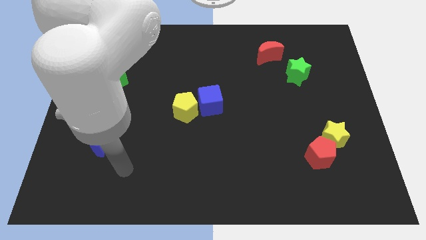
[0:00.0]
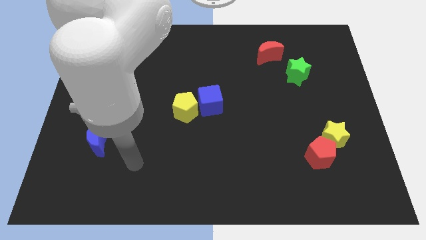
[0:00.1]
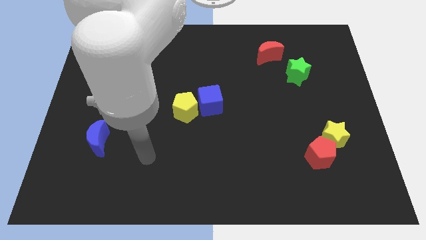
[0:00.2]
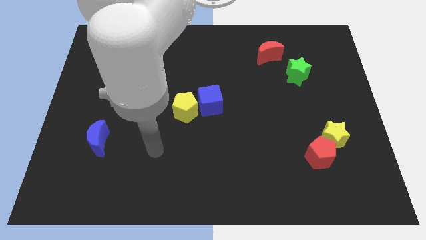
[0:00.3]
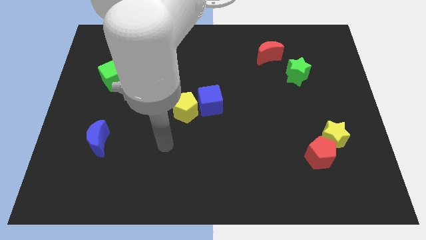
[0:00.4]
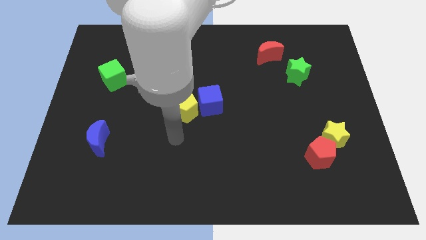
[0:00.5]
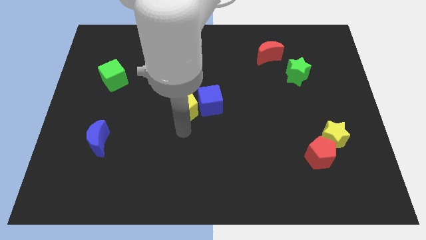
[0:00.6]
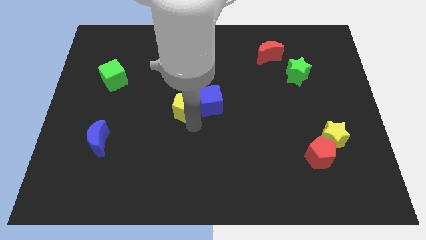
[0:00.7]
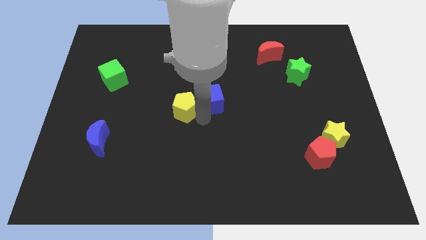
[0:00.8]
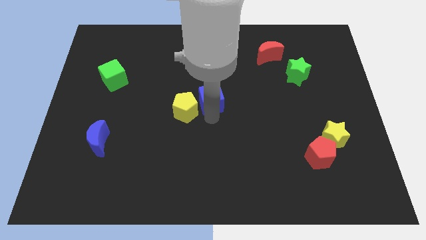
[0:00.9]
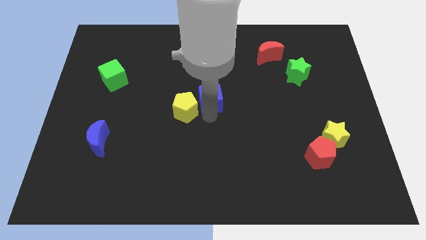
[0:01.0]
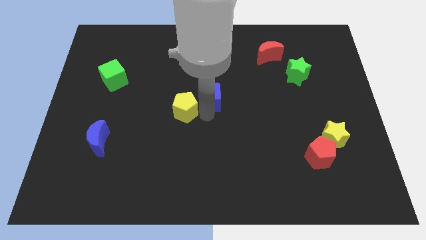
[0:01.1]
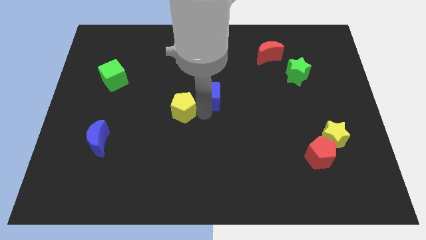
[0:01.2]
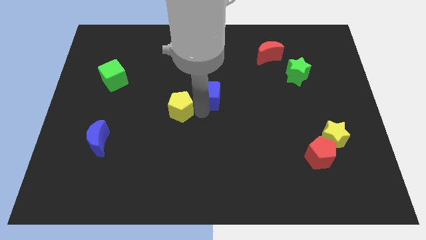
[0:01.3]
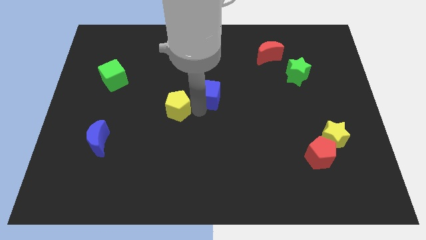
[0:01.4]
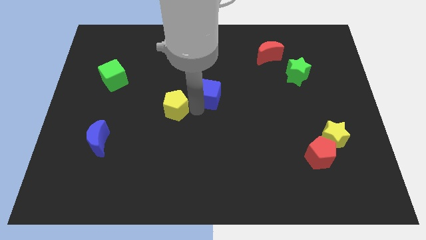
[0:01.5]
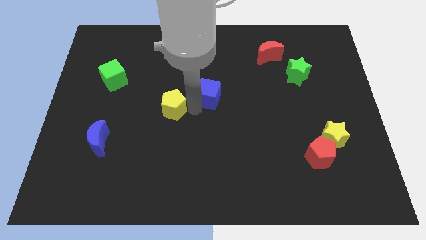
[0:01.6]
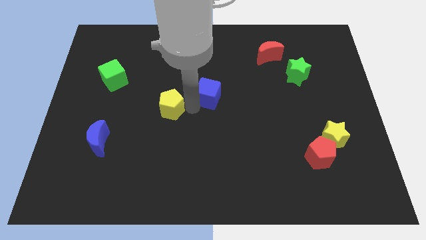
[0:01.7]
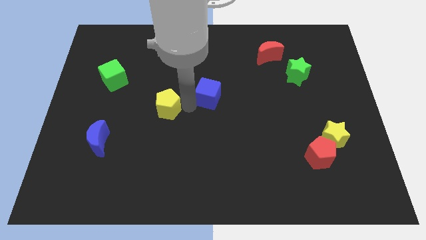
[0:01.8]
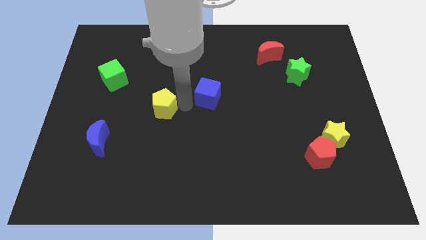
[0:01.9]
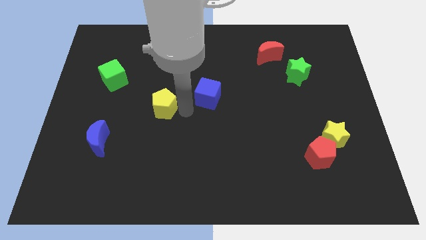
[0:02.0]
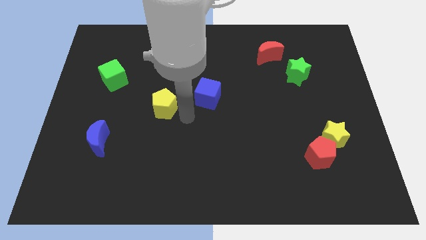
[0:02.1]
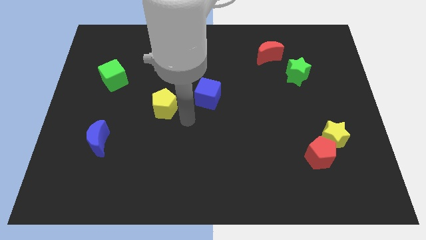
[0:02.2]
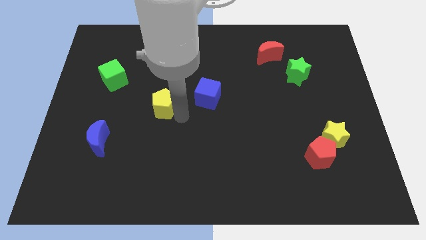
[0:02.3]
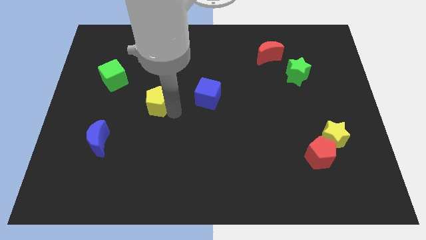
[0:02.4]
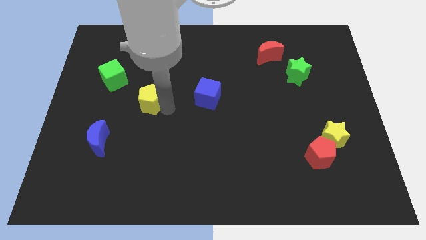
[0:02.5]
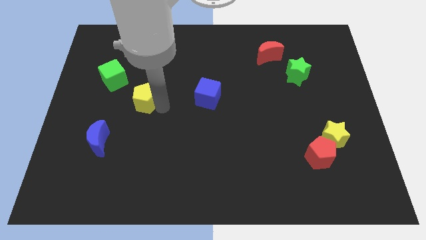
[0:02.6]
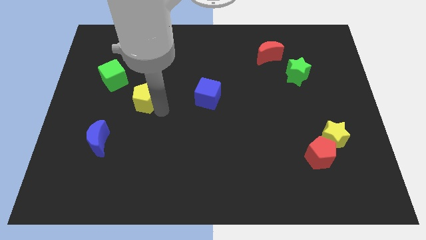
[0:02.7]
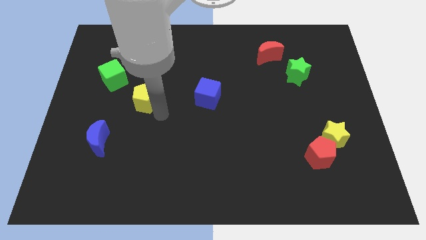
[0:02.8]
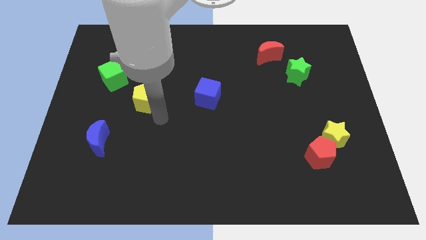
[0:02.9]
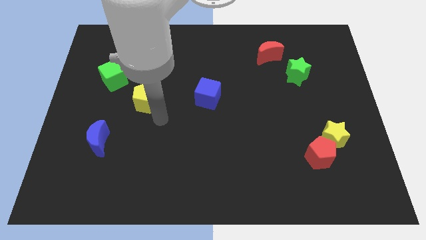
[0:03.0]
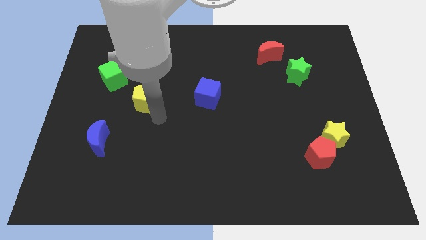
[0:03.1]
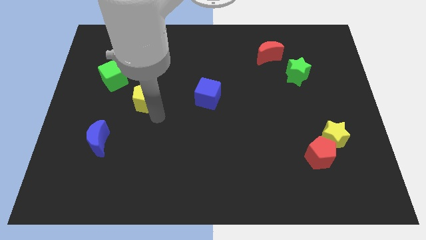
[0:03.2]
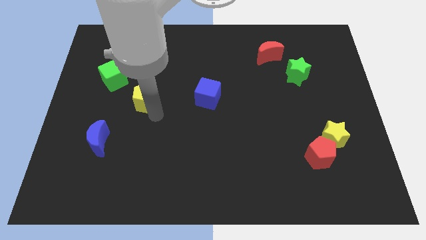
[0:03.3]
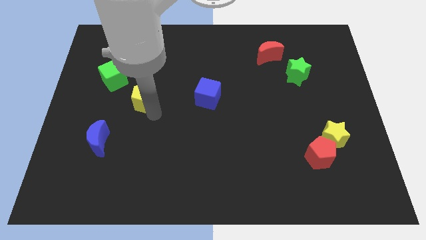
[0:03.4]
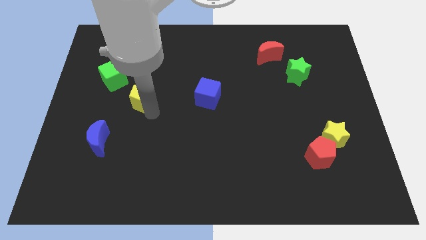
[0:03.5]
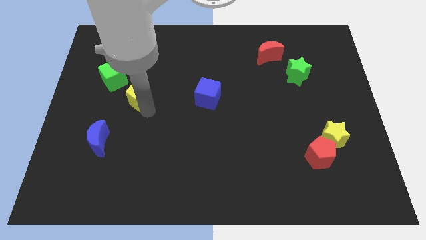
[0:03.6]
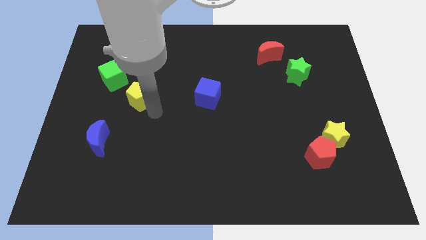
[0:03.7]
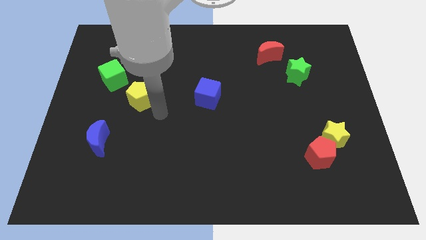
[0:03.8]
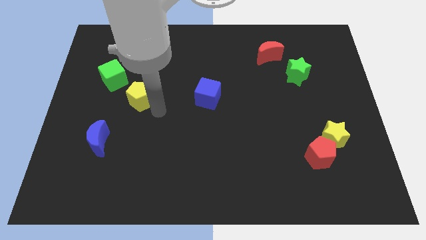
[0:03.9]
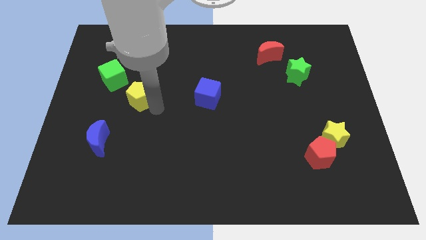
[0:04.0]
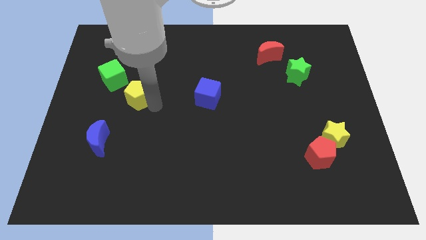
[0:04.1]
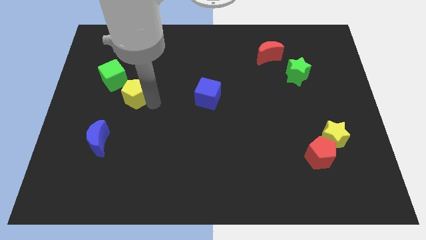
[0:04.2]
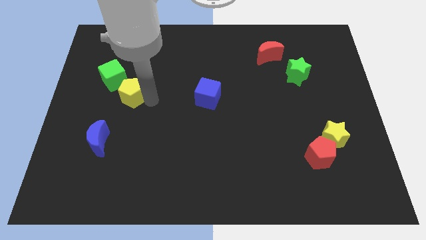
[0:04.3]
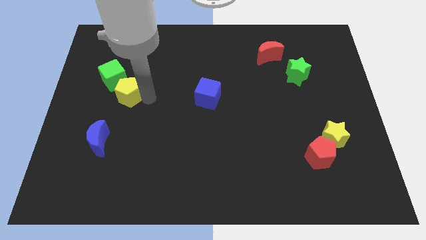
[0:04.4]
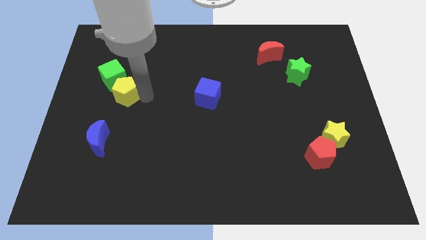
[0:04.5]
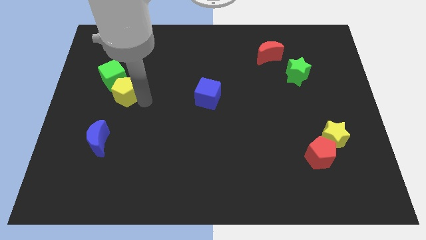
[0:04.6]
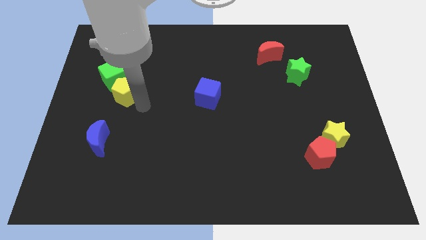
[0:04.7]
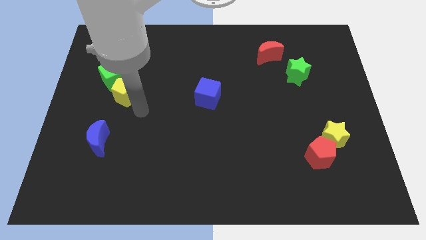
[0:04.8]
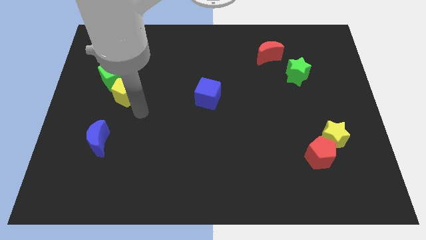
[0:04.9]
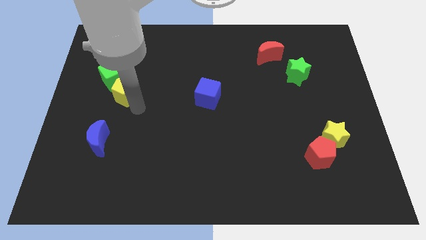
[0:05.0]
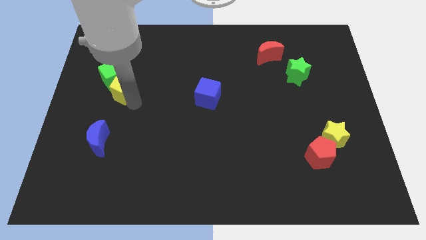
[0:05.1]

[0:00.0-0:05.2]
slide the yellow pentagon next to the green cube

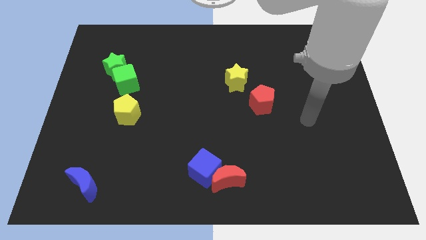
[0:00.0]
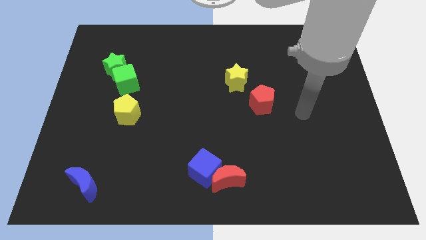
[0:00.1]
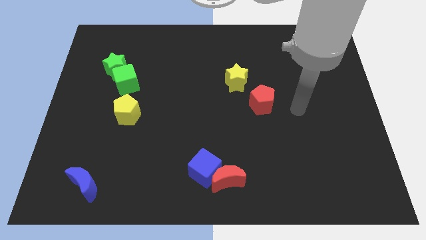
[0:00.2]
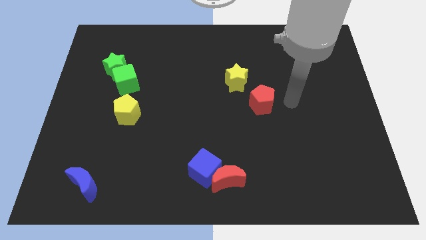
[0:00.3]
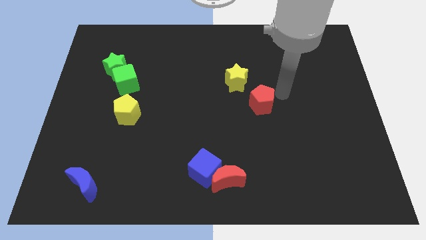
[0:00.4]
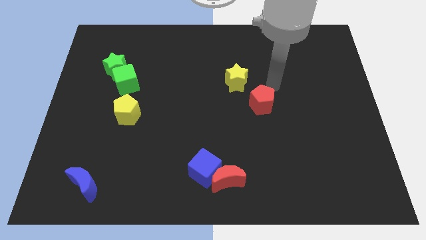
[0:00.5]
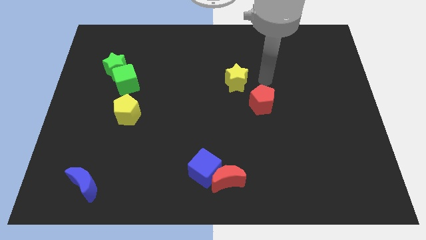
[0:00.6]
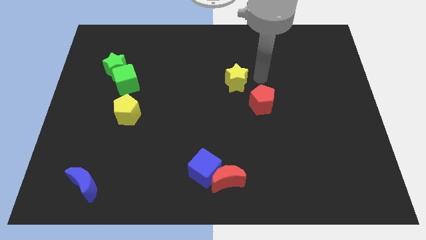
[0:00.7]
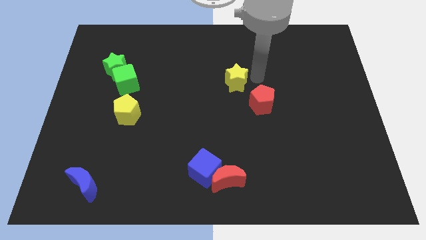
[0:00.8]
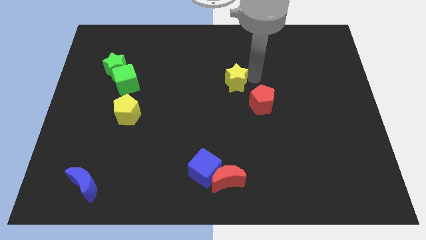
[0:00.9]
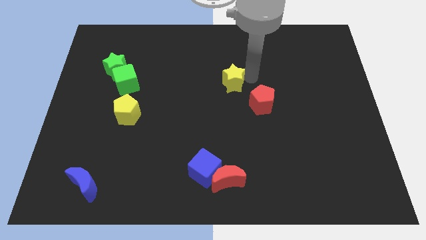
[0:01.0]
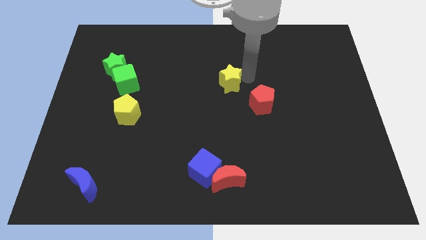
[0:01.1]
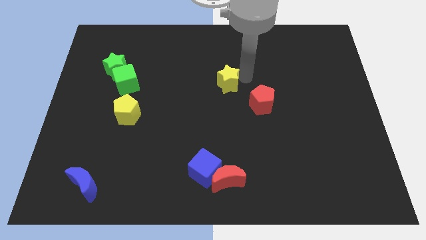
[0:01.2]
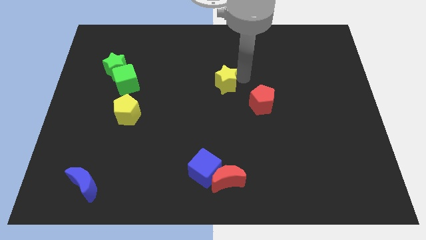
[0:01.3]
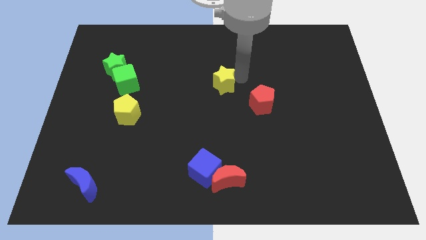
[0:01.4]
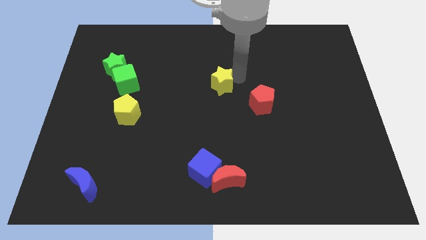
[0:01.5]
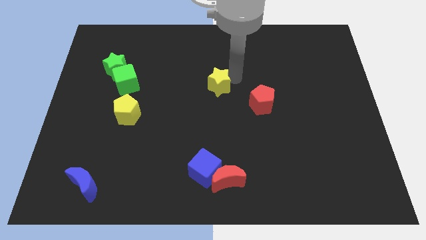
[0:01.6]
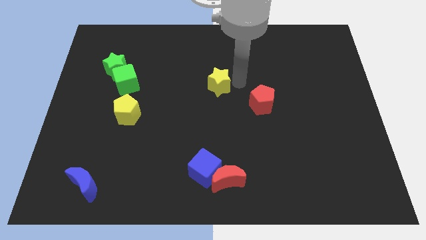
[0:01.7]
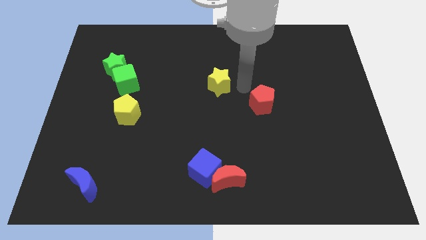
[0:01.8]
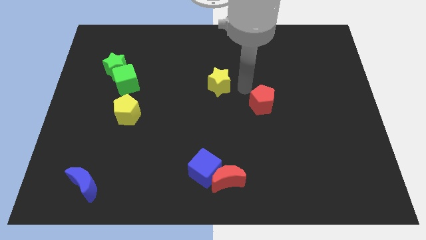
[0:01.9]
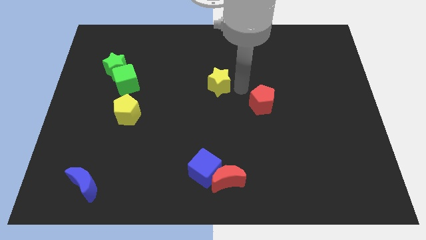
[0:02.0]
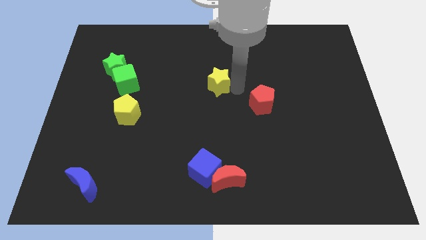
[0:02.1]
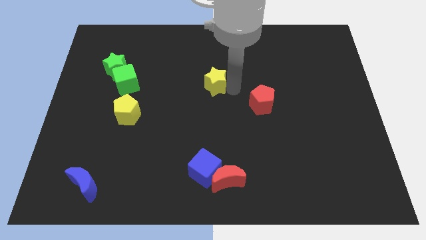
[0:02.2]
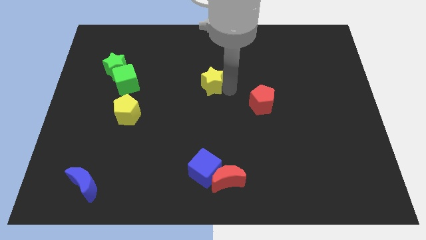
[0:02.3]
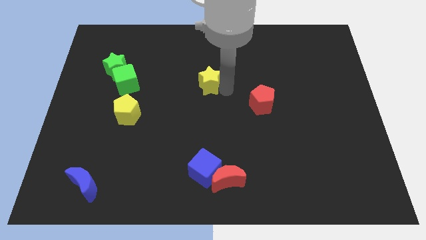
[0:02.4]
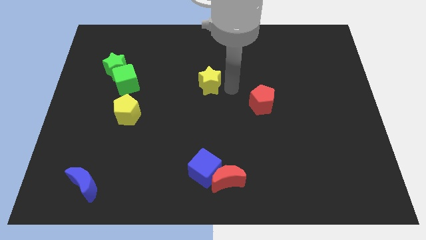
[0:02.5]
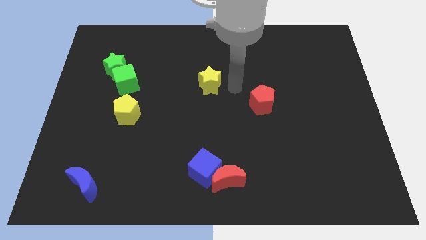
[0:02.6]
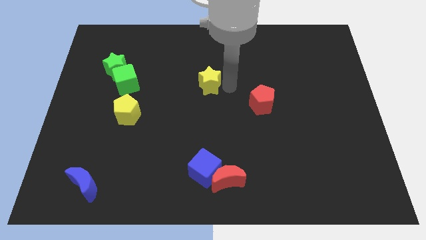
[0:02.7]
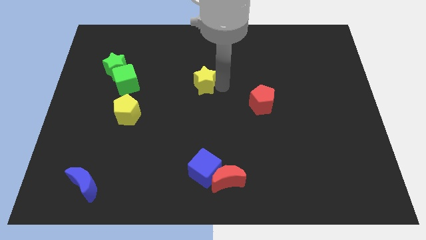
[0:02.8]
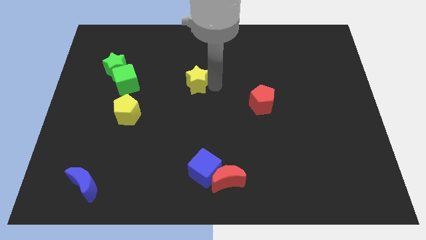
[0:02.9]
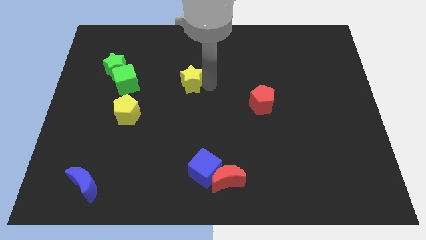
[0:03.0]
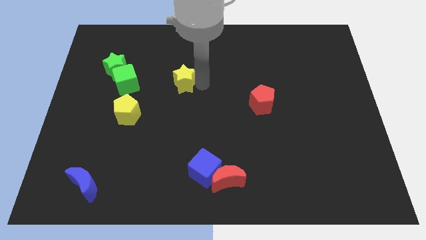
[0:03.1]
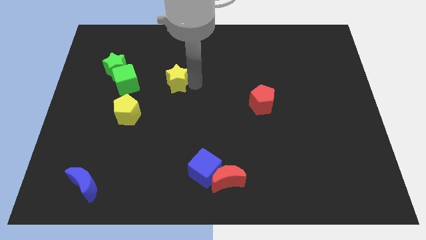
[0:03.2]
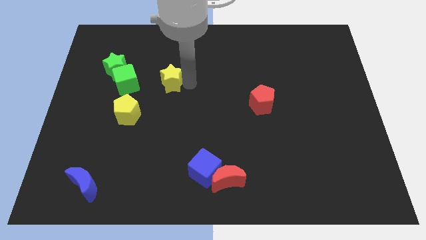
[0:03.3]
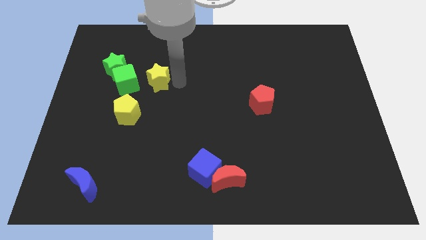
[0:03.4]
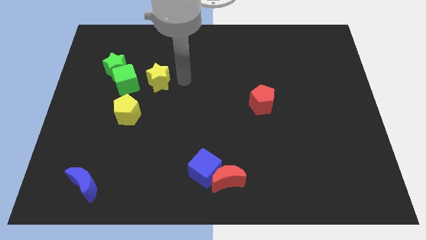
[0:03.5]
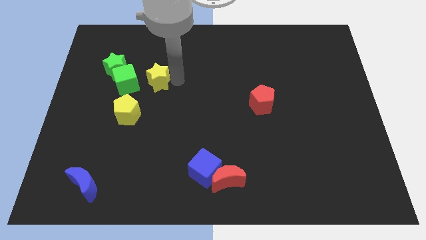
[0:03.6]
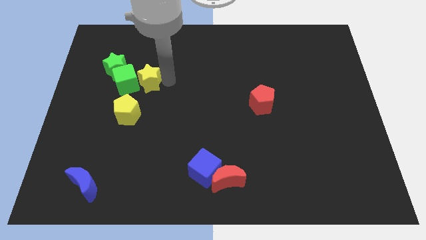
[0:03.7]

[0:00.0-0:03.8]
push the yellow star next to the green cube
